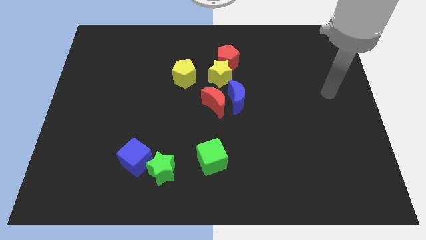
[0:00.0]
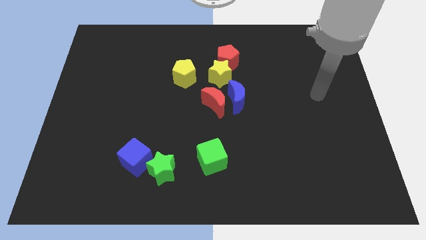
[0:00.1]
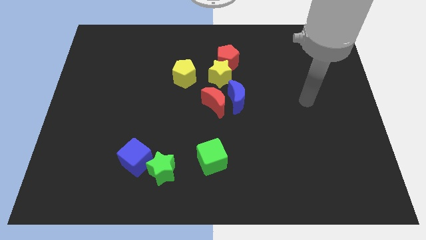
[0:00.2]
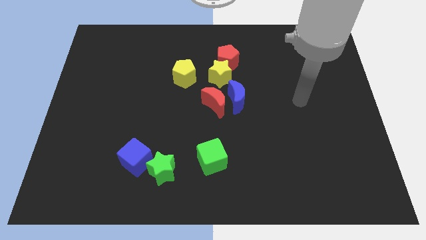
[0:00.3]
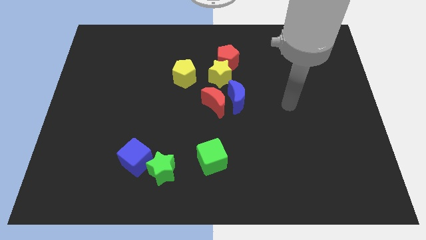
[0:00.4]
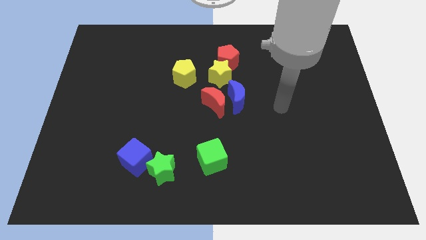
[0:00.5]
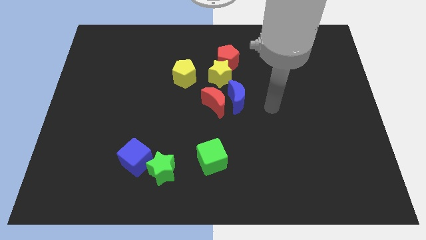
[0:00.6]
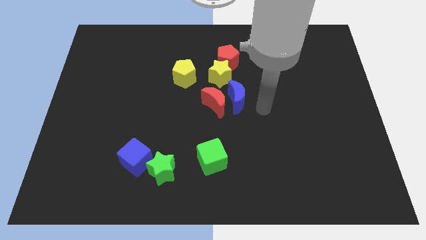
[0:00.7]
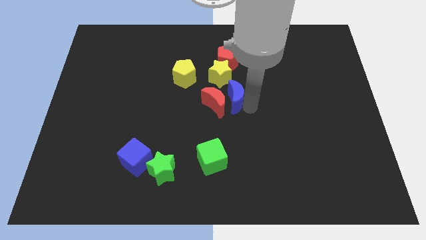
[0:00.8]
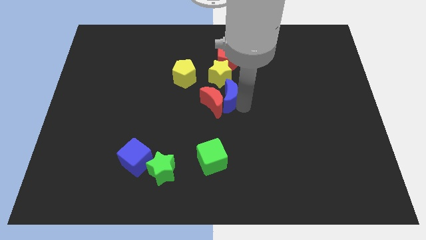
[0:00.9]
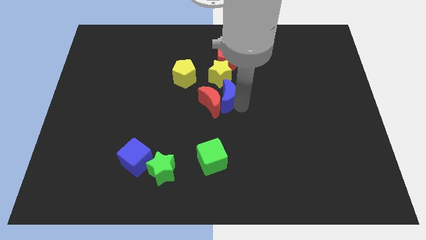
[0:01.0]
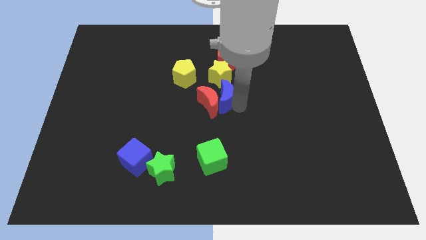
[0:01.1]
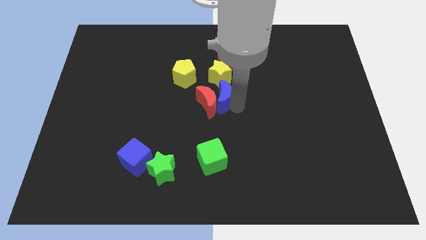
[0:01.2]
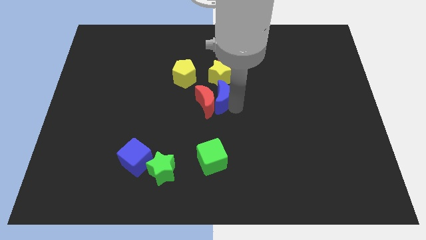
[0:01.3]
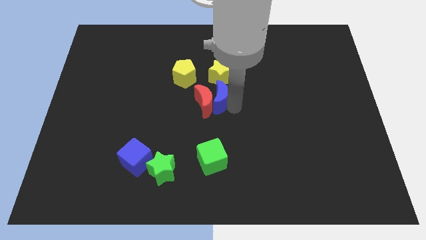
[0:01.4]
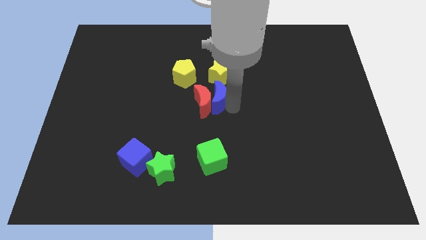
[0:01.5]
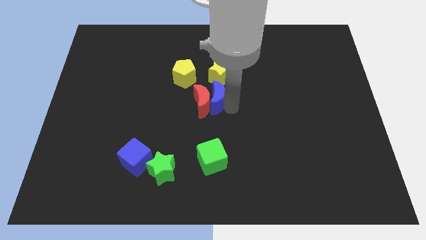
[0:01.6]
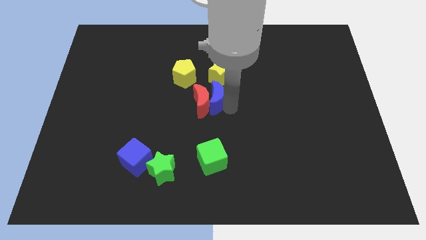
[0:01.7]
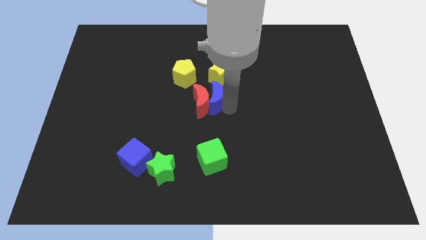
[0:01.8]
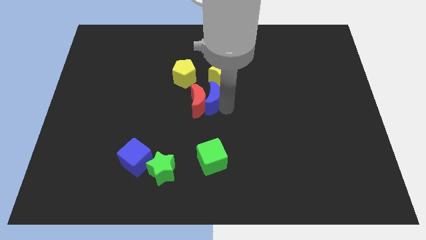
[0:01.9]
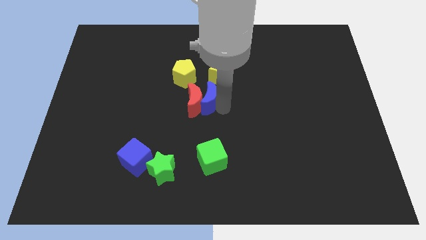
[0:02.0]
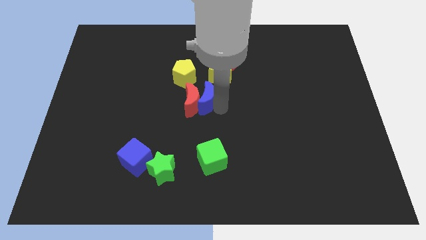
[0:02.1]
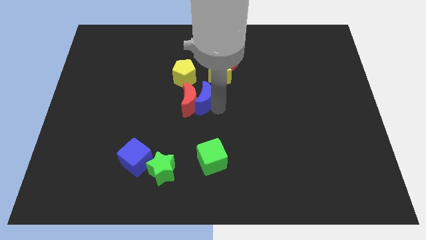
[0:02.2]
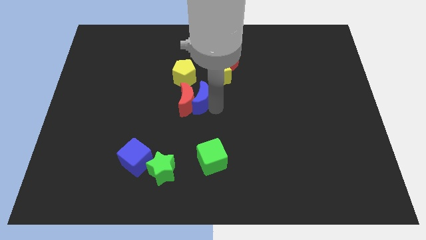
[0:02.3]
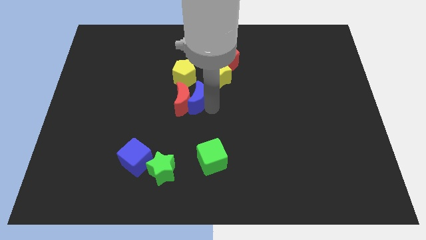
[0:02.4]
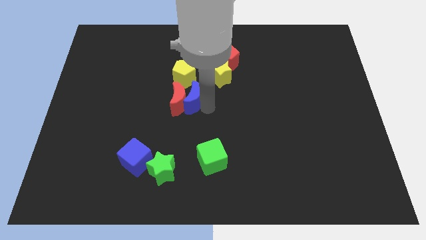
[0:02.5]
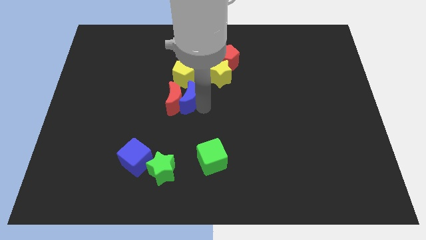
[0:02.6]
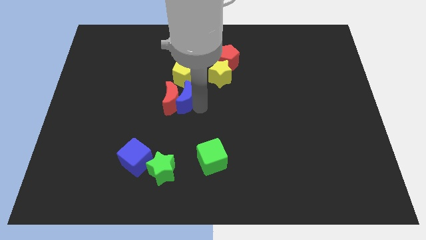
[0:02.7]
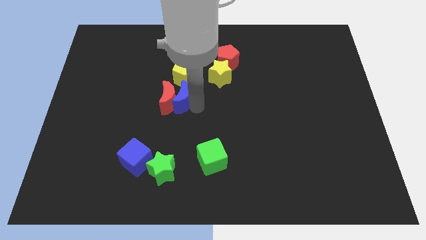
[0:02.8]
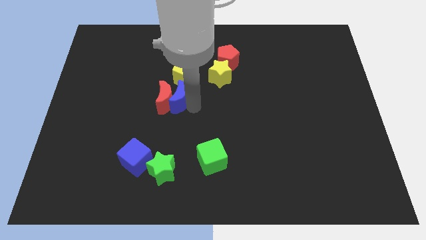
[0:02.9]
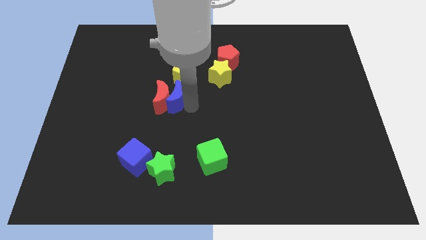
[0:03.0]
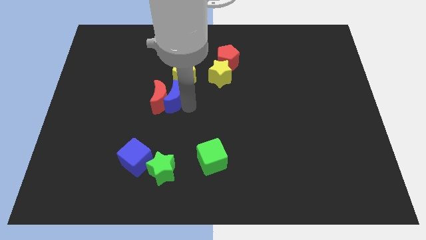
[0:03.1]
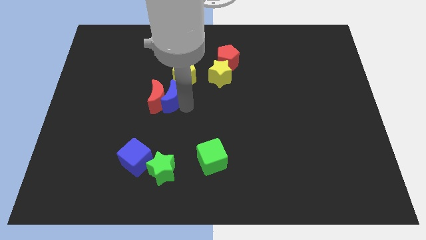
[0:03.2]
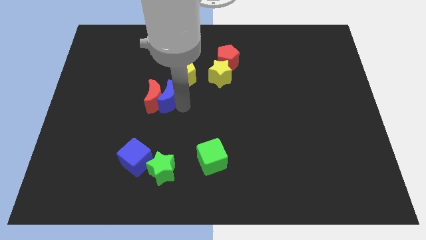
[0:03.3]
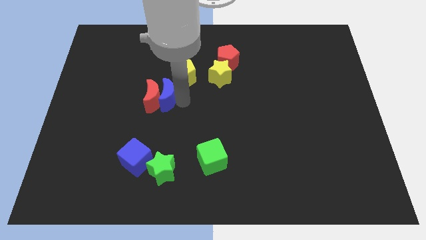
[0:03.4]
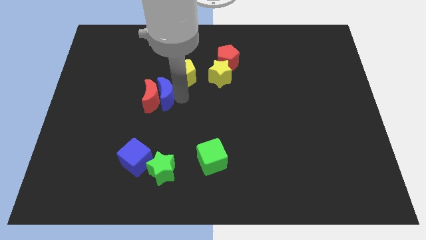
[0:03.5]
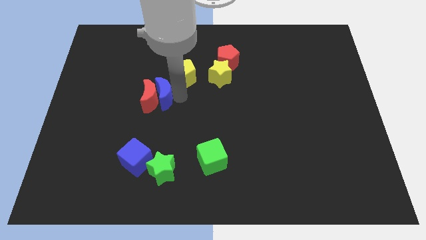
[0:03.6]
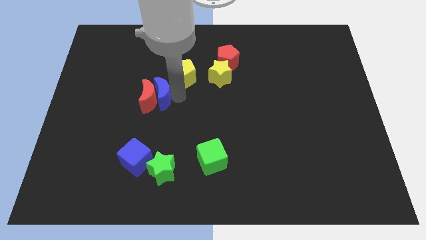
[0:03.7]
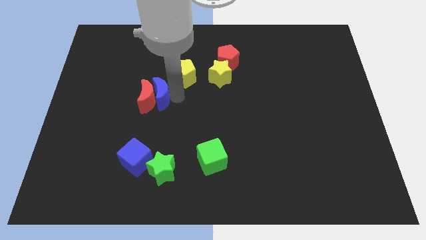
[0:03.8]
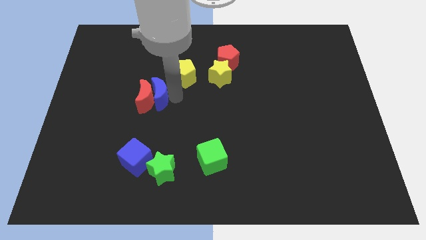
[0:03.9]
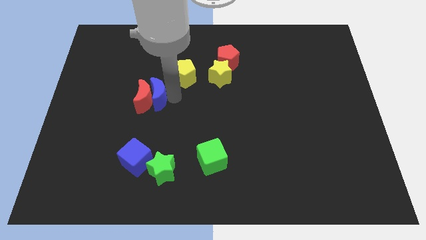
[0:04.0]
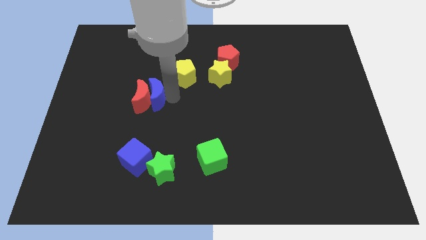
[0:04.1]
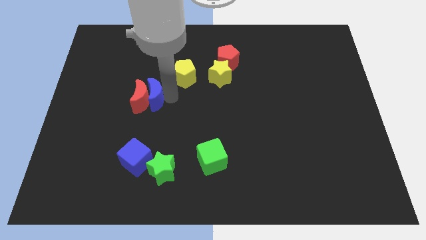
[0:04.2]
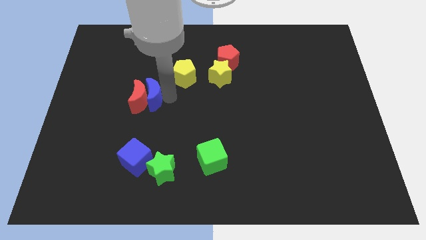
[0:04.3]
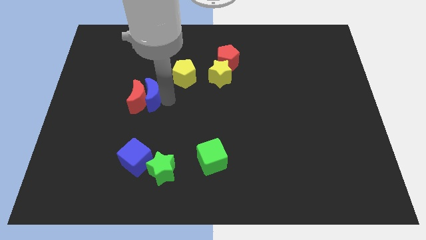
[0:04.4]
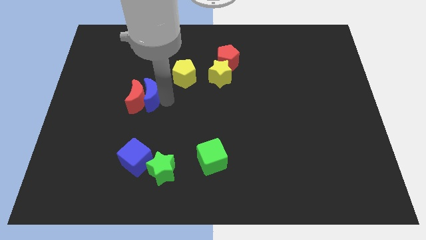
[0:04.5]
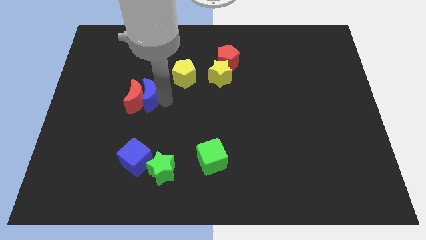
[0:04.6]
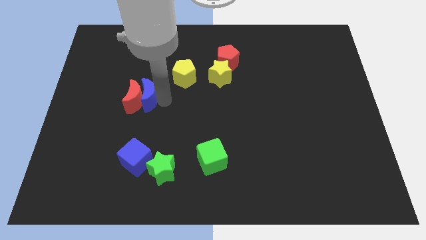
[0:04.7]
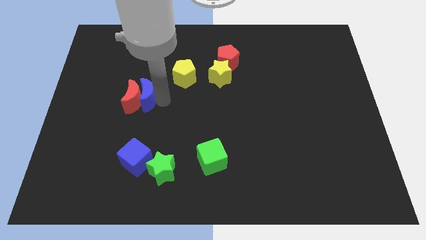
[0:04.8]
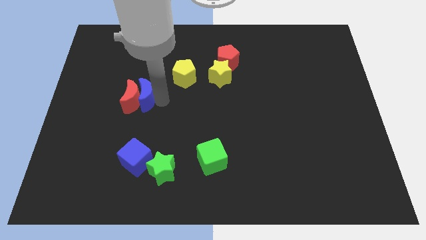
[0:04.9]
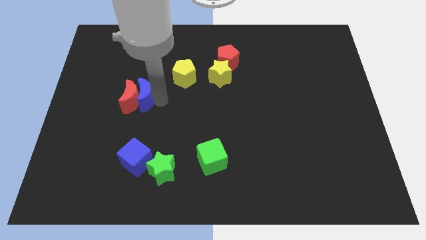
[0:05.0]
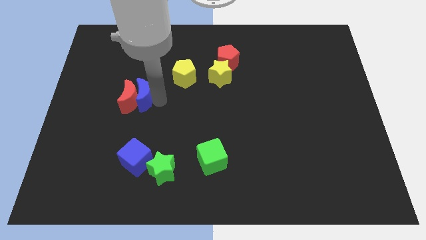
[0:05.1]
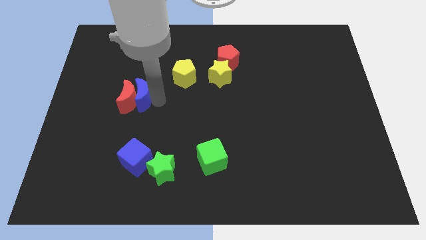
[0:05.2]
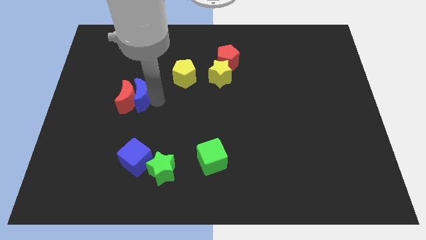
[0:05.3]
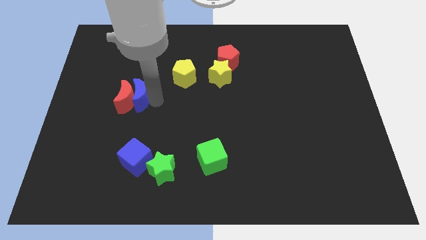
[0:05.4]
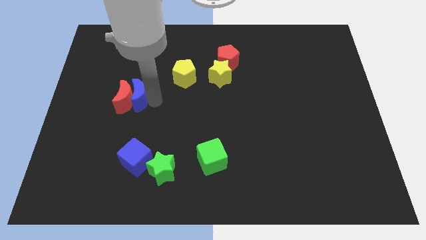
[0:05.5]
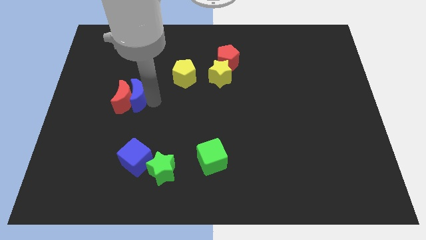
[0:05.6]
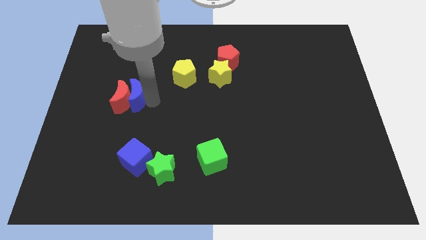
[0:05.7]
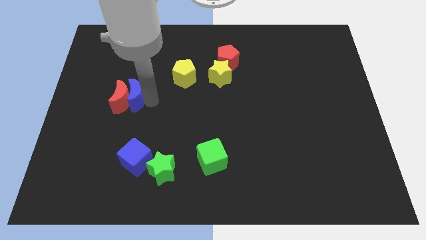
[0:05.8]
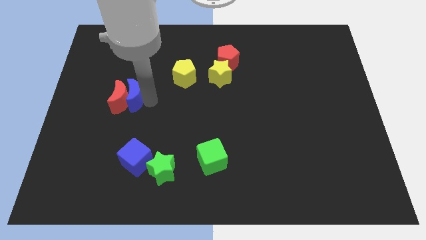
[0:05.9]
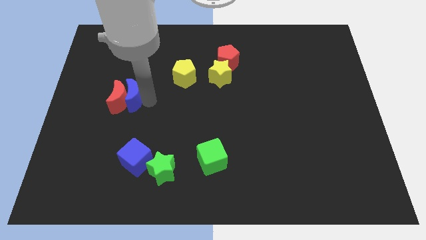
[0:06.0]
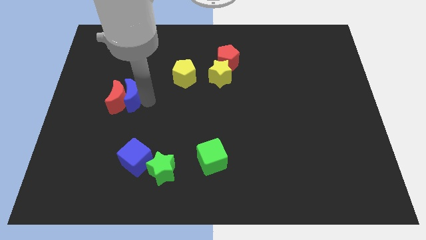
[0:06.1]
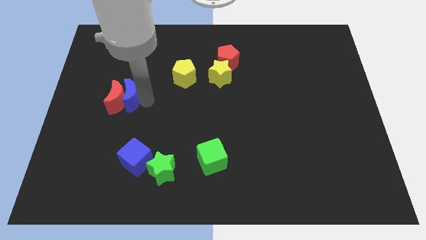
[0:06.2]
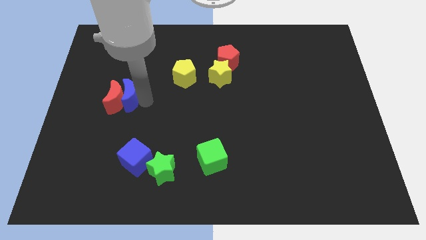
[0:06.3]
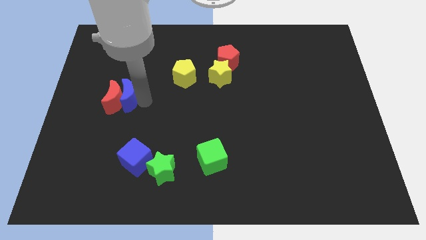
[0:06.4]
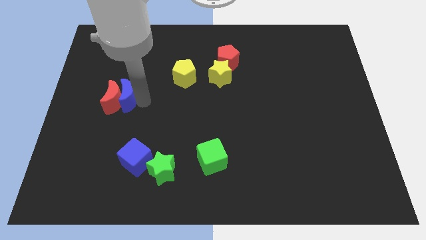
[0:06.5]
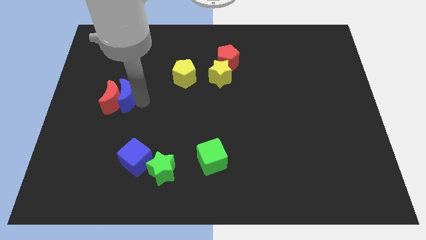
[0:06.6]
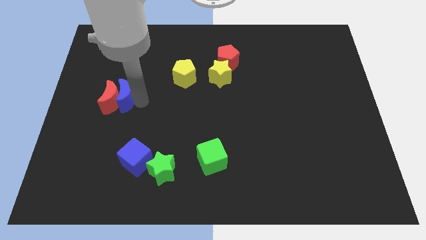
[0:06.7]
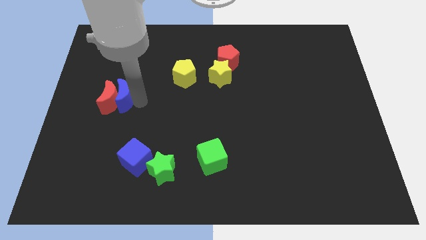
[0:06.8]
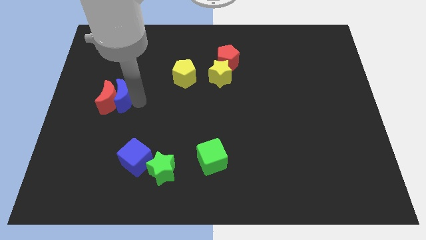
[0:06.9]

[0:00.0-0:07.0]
slide the red moon to the left side
